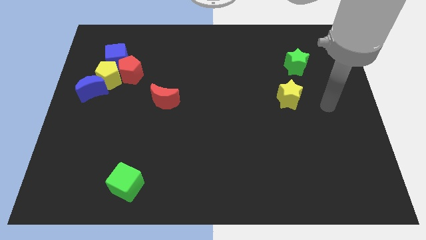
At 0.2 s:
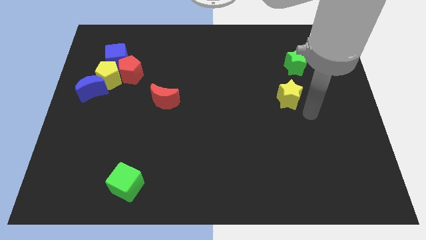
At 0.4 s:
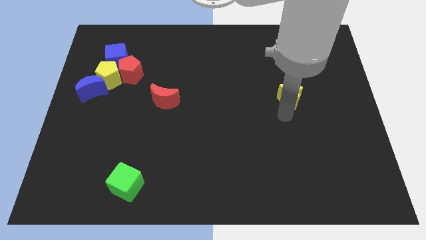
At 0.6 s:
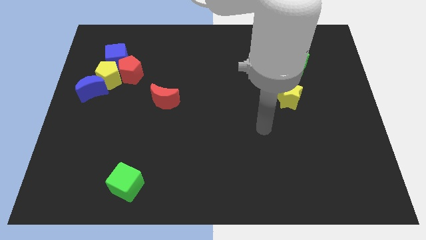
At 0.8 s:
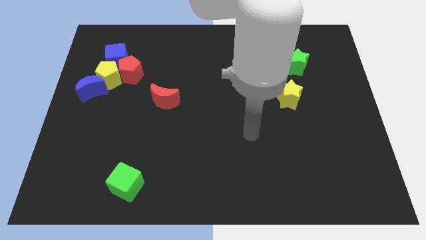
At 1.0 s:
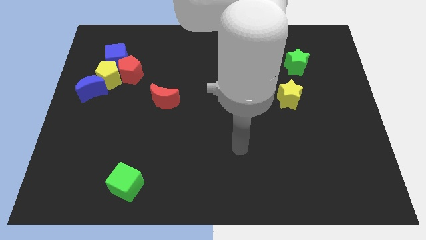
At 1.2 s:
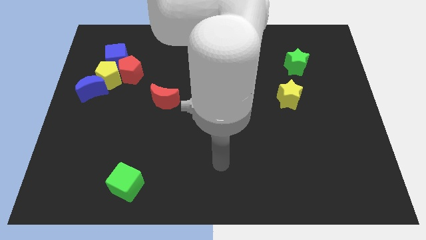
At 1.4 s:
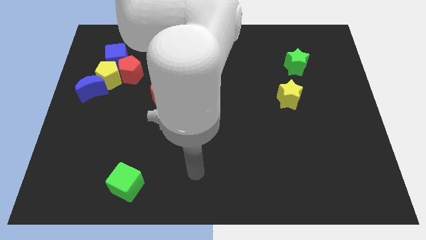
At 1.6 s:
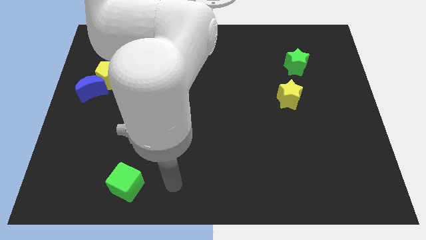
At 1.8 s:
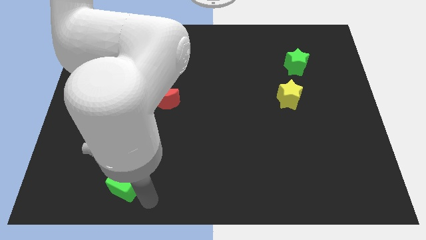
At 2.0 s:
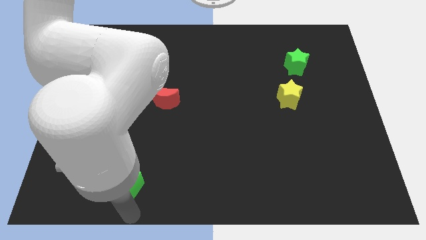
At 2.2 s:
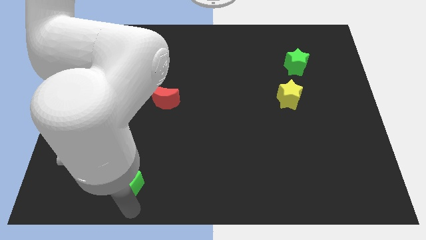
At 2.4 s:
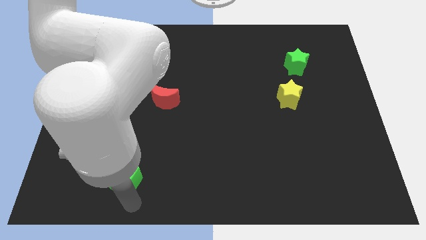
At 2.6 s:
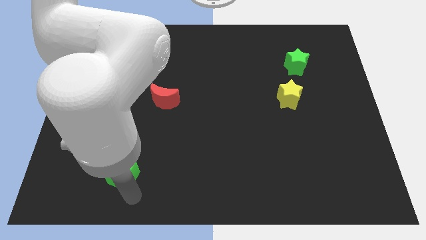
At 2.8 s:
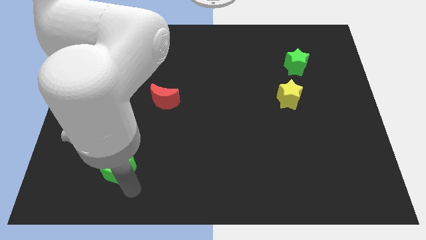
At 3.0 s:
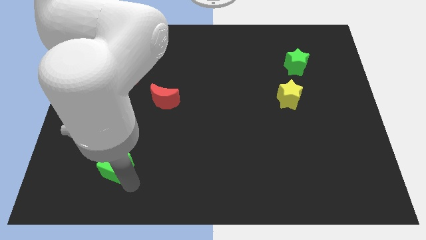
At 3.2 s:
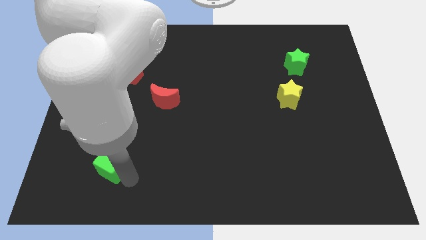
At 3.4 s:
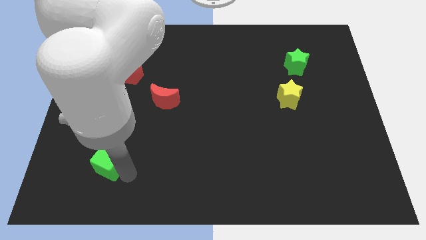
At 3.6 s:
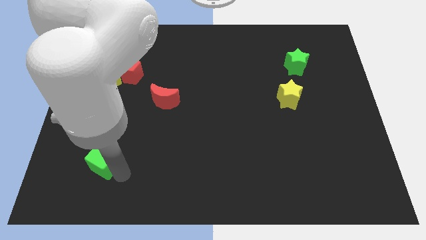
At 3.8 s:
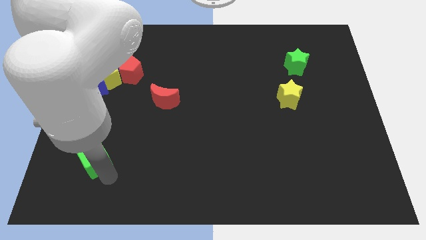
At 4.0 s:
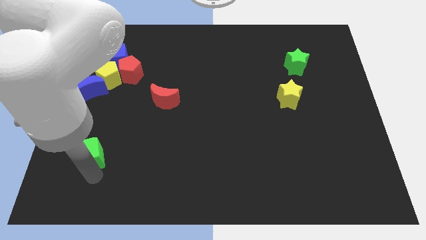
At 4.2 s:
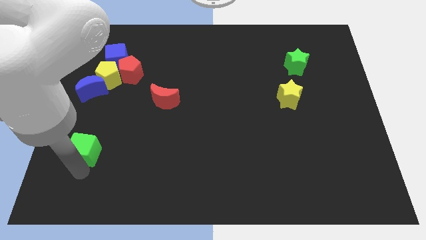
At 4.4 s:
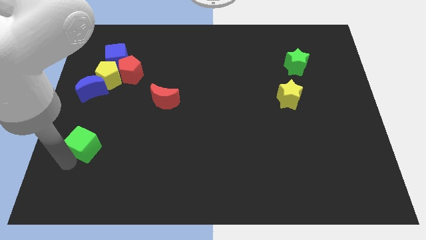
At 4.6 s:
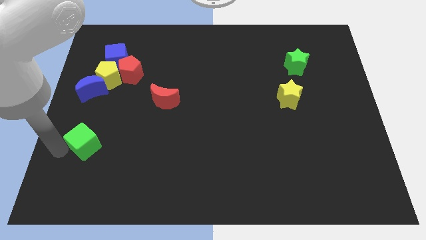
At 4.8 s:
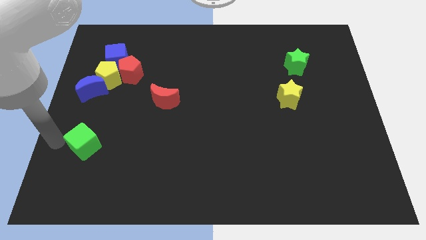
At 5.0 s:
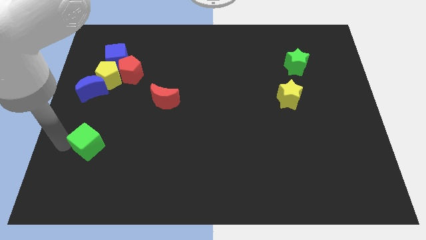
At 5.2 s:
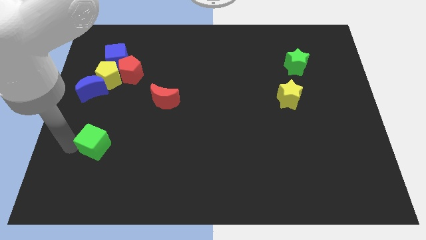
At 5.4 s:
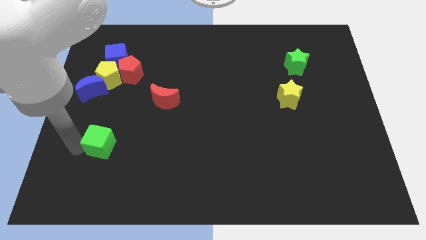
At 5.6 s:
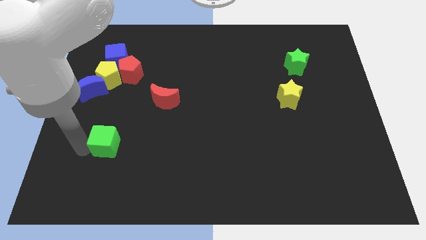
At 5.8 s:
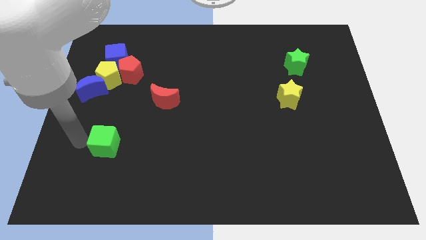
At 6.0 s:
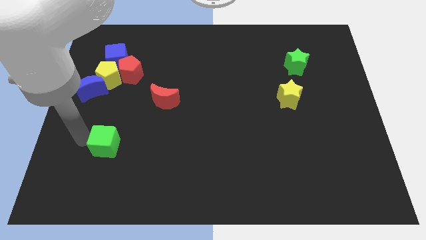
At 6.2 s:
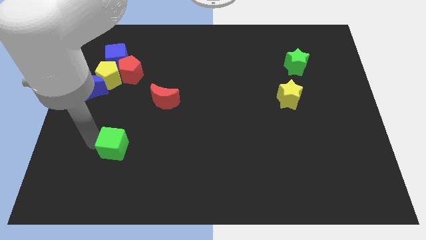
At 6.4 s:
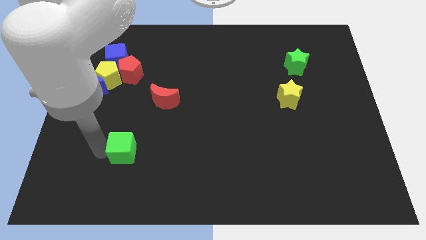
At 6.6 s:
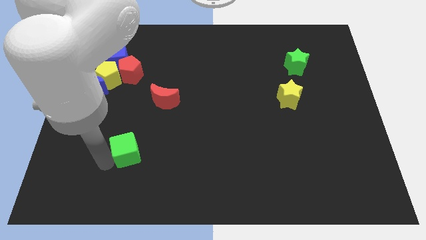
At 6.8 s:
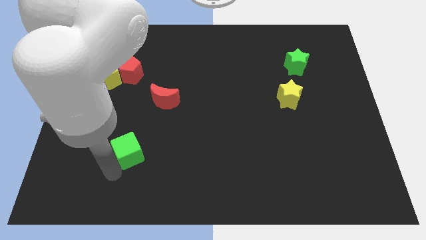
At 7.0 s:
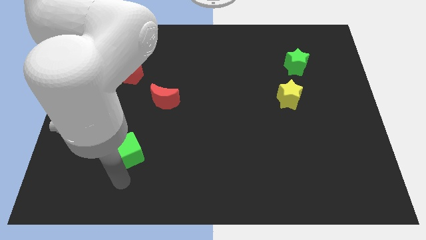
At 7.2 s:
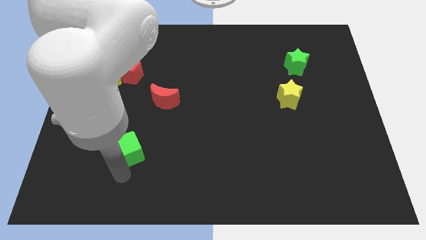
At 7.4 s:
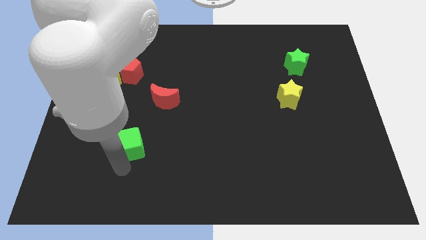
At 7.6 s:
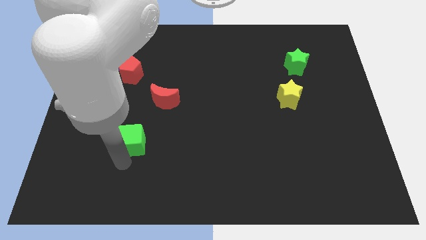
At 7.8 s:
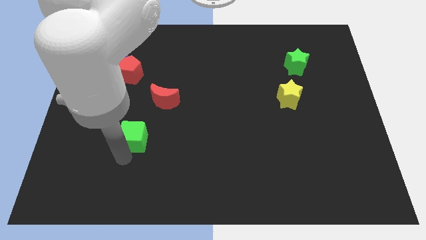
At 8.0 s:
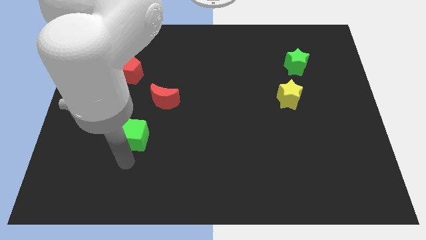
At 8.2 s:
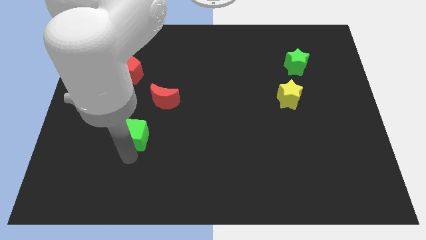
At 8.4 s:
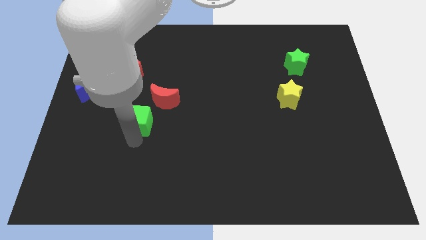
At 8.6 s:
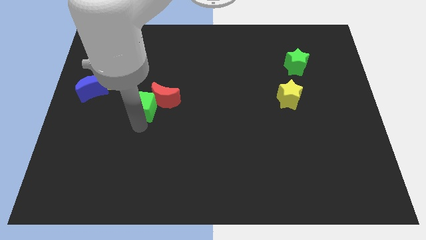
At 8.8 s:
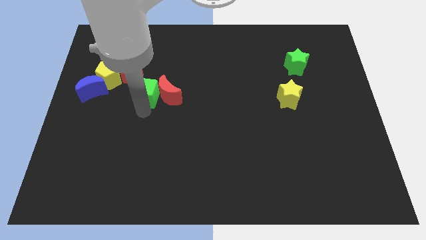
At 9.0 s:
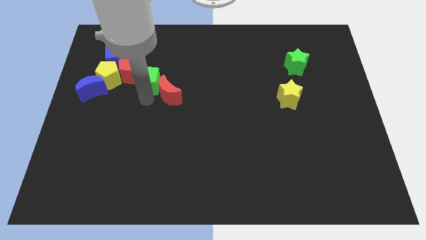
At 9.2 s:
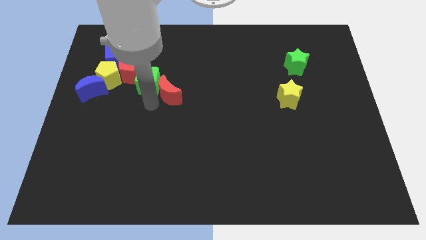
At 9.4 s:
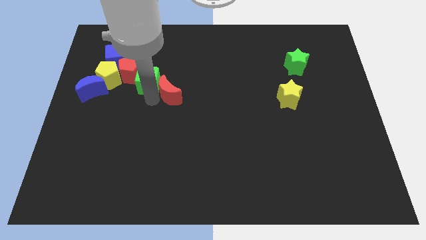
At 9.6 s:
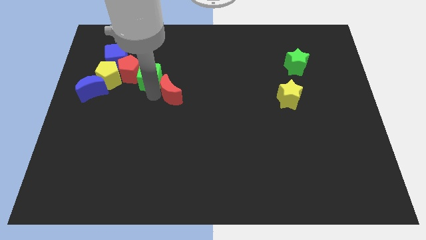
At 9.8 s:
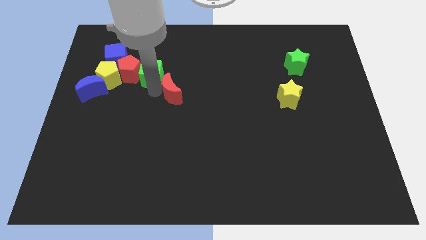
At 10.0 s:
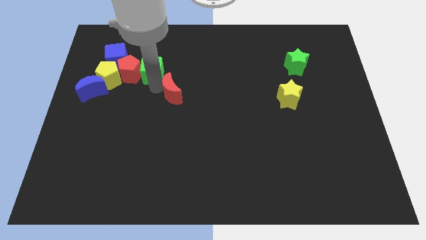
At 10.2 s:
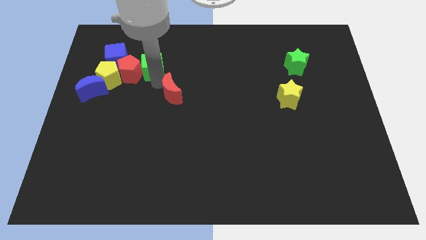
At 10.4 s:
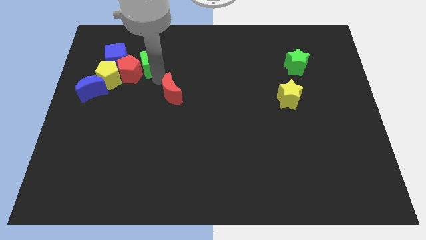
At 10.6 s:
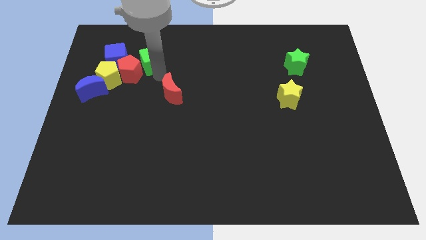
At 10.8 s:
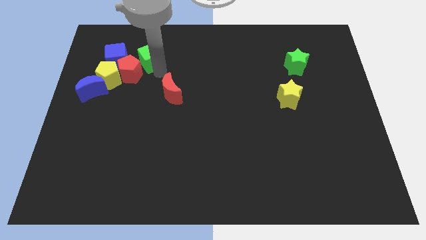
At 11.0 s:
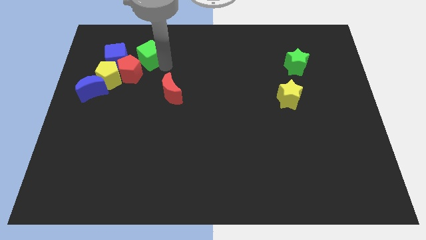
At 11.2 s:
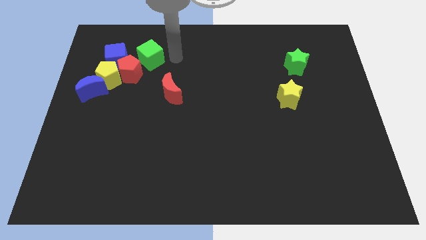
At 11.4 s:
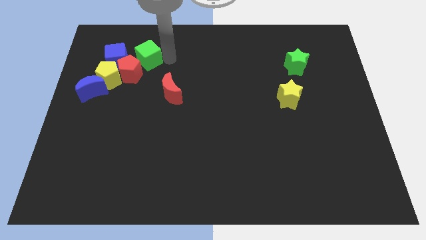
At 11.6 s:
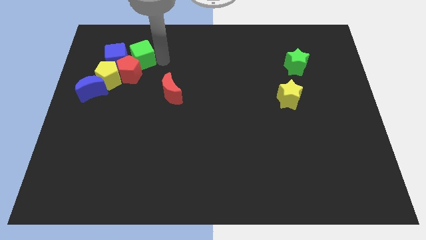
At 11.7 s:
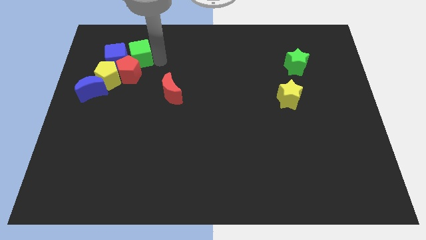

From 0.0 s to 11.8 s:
put the green cube next to the blue cube

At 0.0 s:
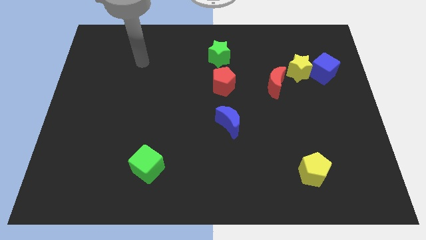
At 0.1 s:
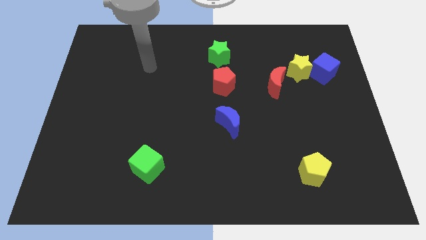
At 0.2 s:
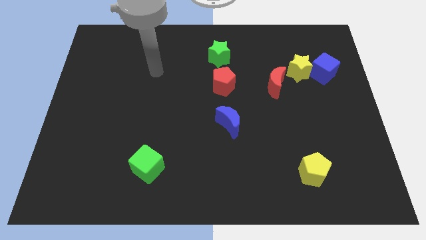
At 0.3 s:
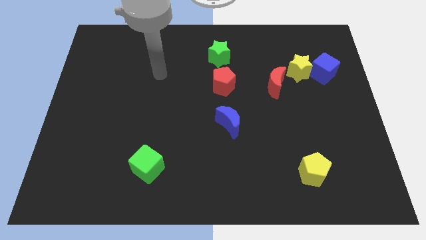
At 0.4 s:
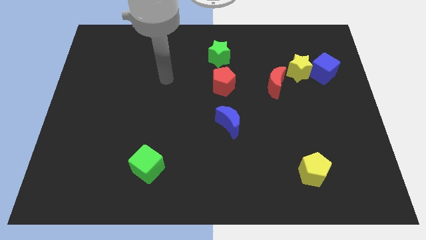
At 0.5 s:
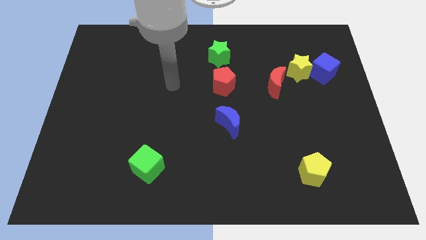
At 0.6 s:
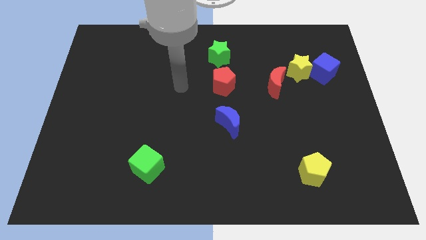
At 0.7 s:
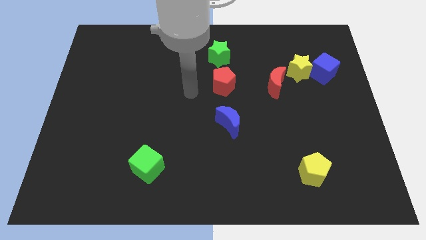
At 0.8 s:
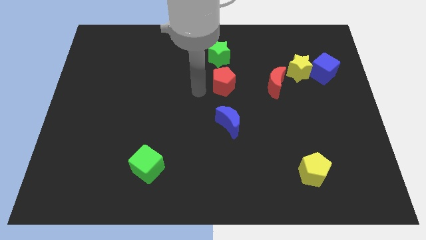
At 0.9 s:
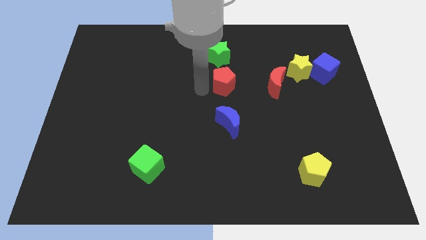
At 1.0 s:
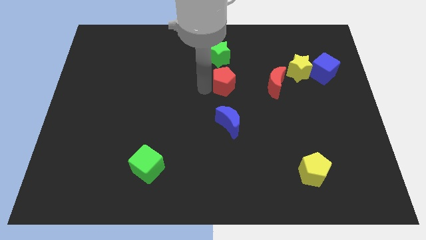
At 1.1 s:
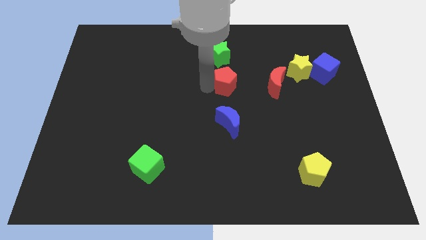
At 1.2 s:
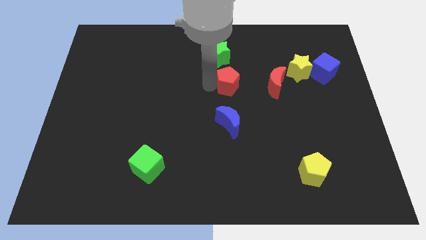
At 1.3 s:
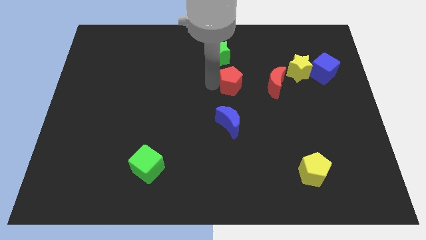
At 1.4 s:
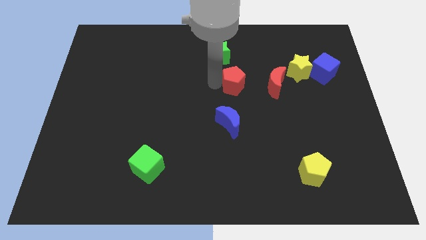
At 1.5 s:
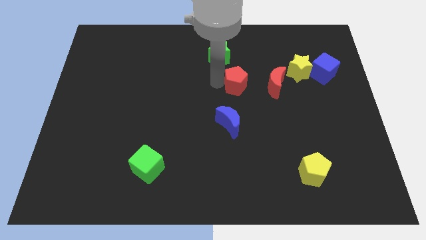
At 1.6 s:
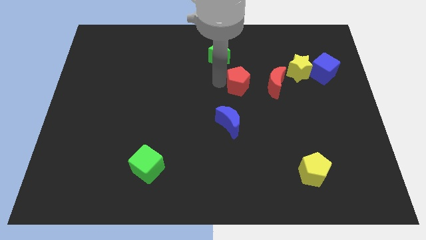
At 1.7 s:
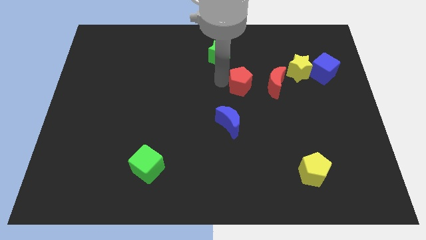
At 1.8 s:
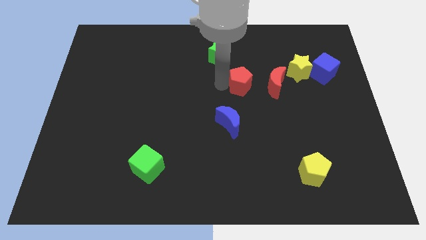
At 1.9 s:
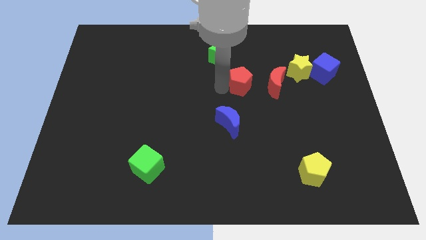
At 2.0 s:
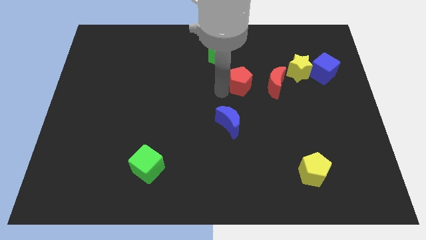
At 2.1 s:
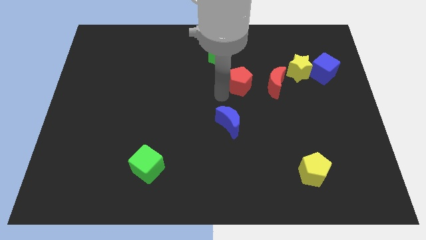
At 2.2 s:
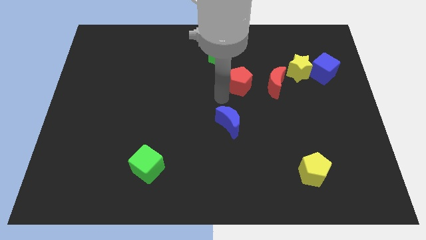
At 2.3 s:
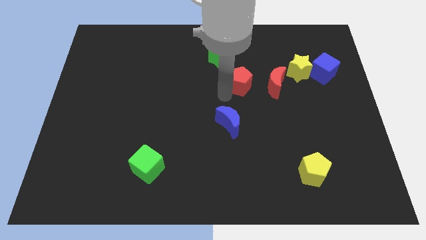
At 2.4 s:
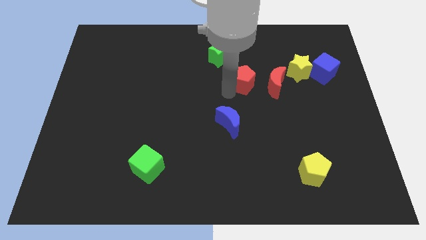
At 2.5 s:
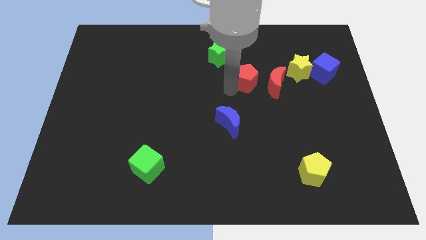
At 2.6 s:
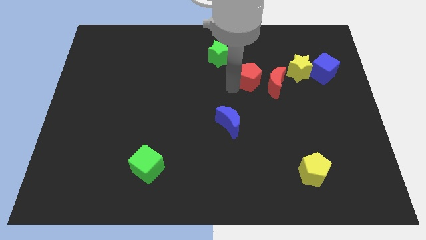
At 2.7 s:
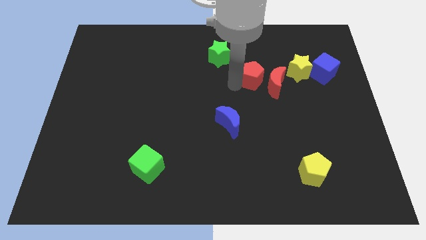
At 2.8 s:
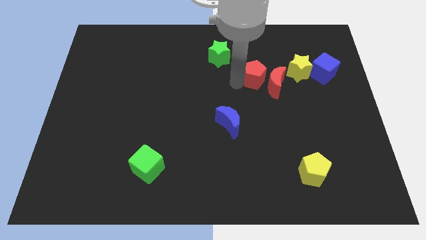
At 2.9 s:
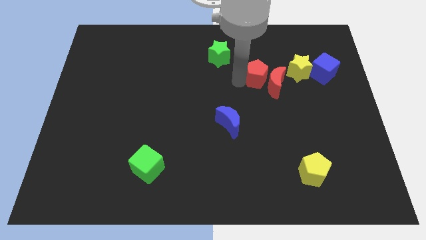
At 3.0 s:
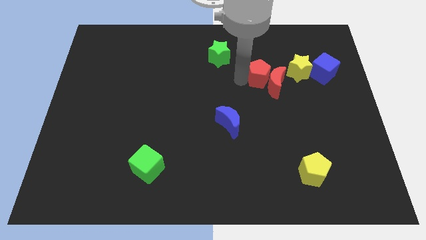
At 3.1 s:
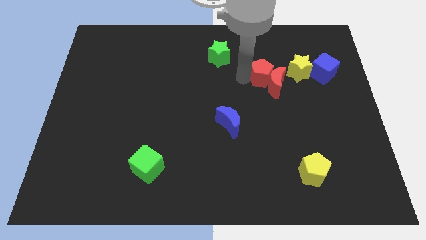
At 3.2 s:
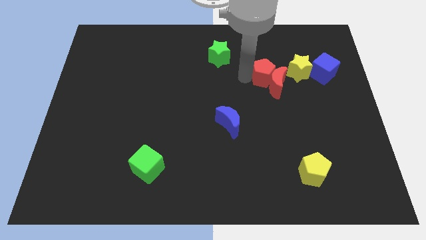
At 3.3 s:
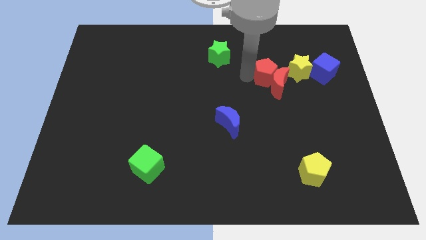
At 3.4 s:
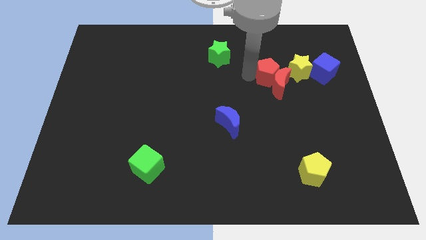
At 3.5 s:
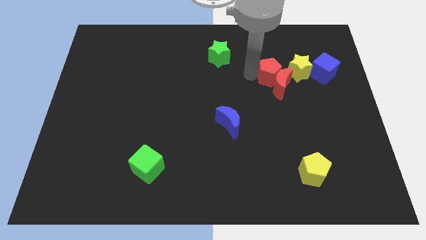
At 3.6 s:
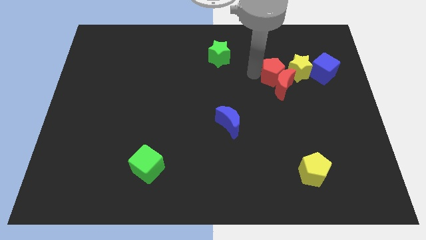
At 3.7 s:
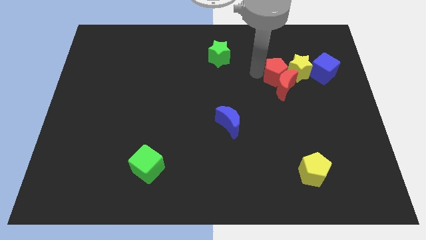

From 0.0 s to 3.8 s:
move the red pentagon close to the yellow star
